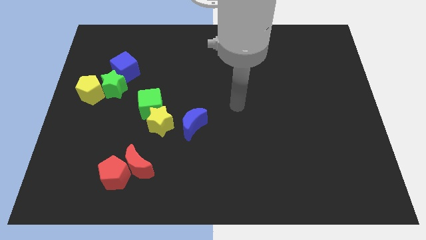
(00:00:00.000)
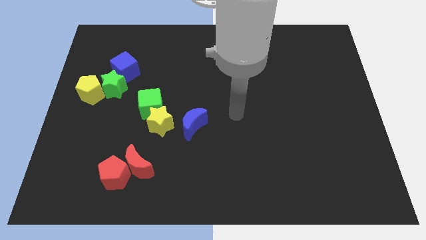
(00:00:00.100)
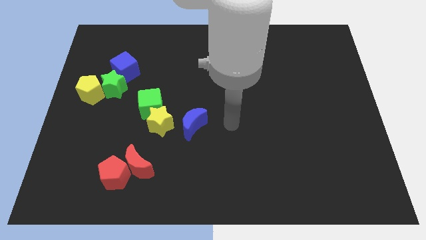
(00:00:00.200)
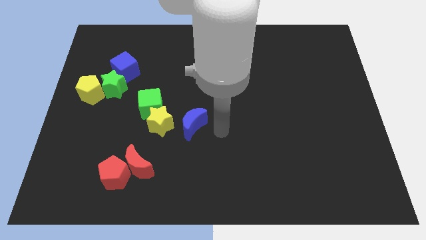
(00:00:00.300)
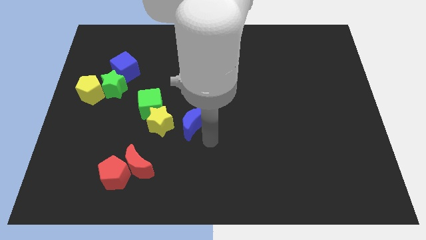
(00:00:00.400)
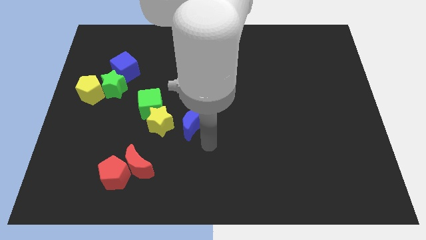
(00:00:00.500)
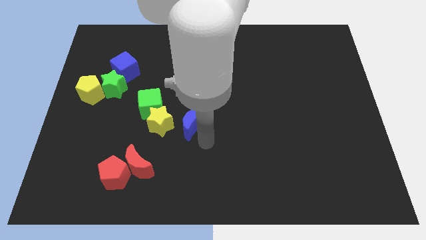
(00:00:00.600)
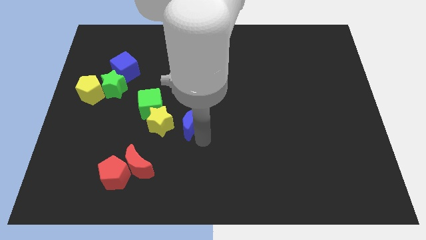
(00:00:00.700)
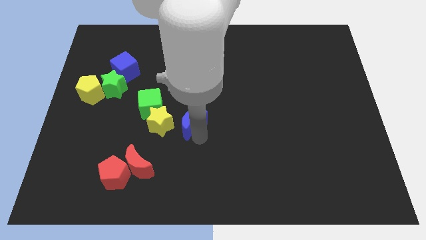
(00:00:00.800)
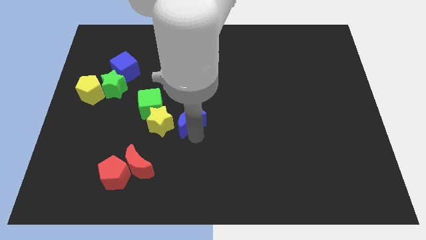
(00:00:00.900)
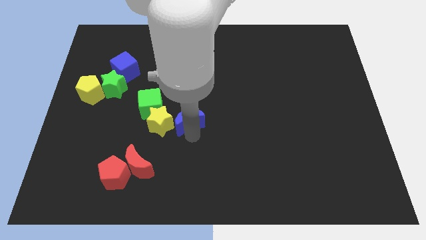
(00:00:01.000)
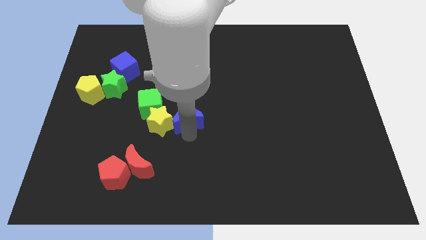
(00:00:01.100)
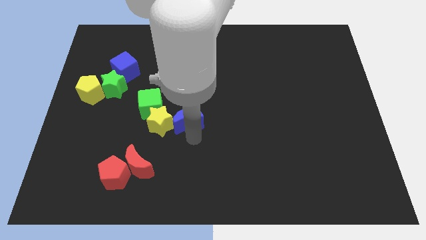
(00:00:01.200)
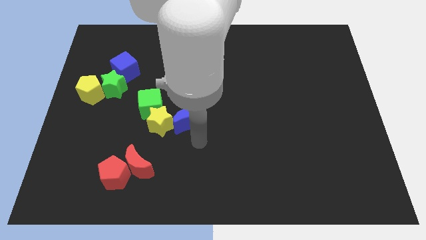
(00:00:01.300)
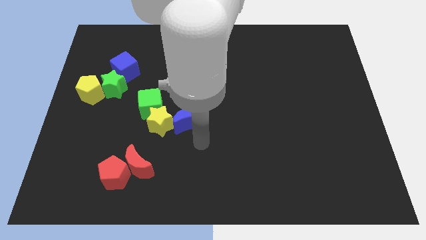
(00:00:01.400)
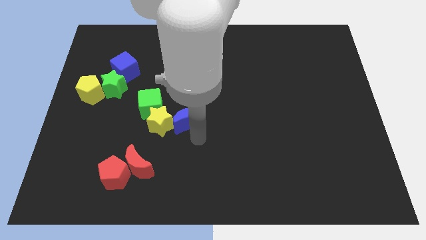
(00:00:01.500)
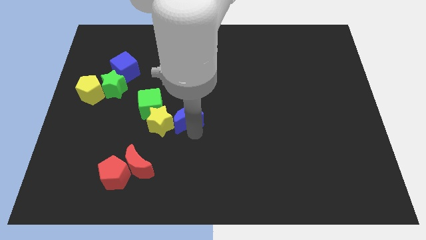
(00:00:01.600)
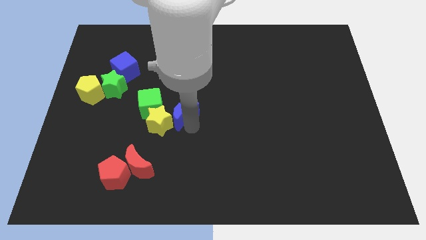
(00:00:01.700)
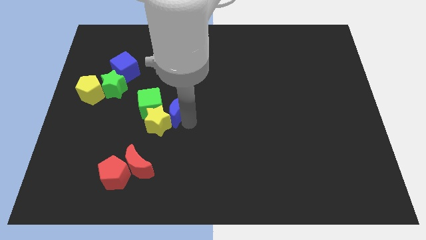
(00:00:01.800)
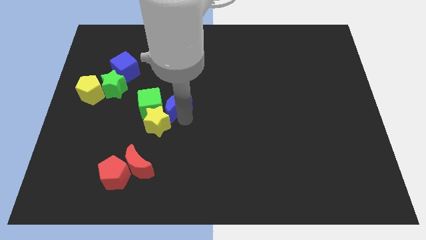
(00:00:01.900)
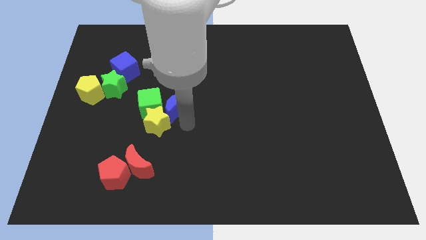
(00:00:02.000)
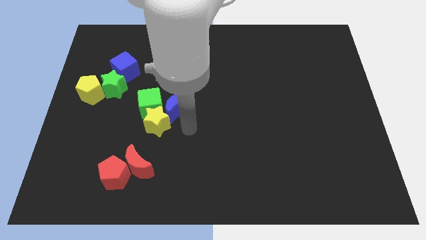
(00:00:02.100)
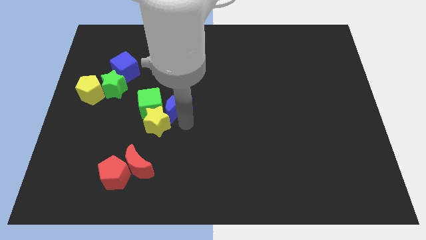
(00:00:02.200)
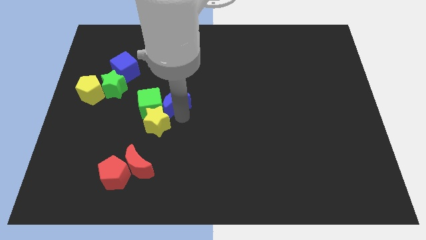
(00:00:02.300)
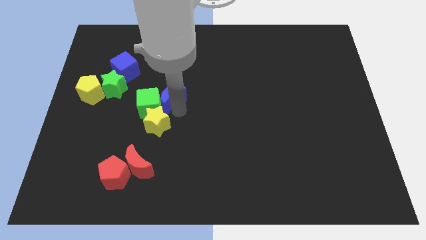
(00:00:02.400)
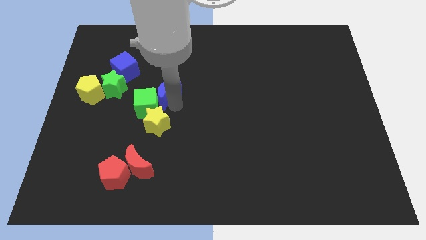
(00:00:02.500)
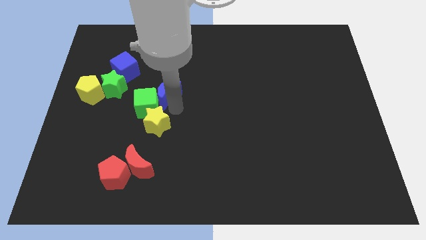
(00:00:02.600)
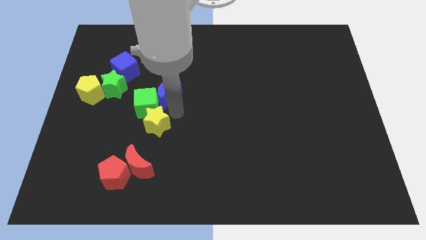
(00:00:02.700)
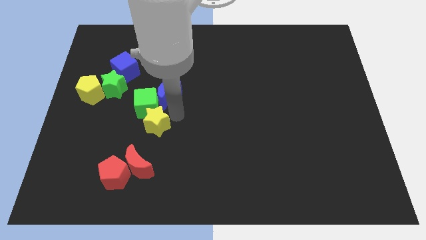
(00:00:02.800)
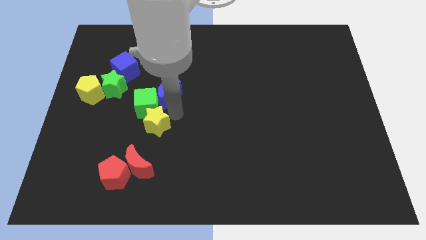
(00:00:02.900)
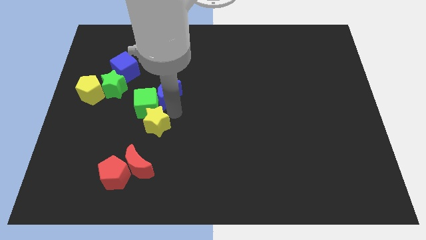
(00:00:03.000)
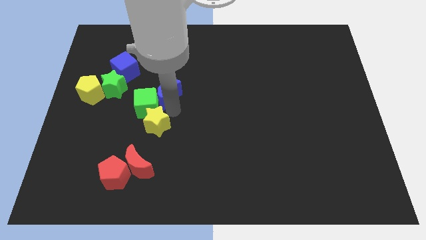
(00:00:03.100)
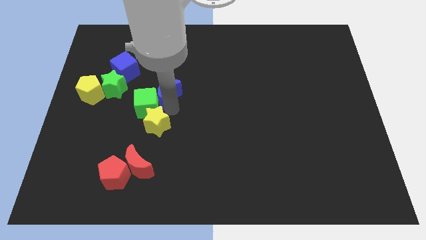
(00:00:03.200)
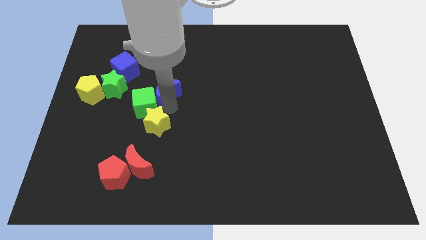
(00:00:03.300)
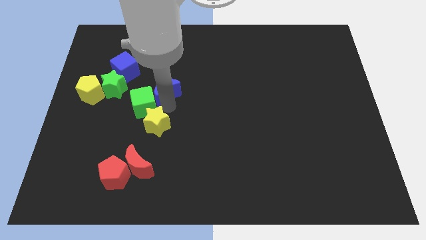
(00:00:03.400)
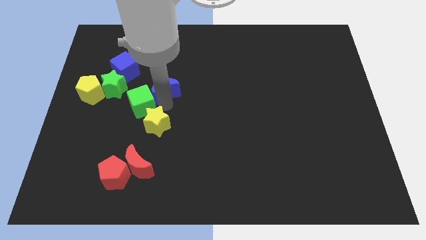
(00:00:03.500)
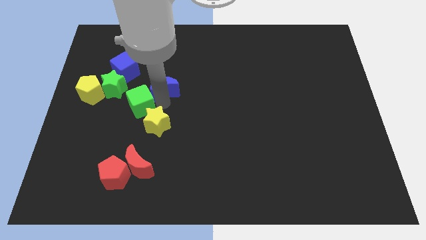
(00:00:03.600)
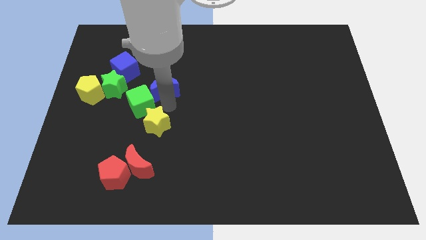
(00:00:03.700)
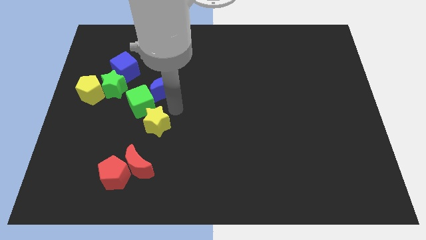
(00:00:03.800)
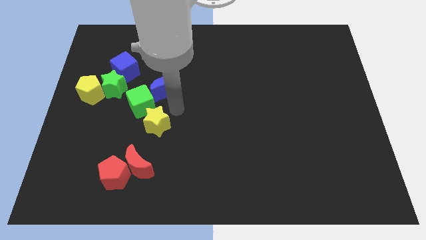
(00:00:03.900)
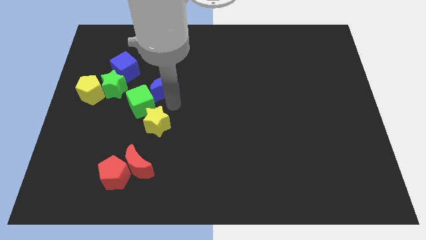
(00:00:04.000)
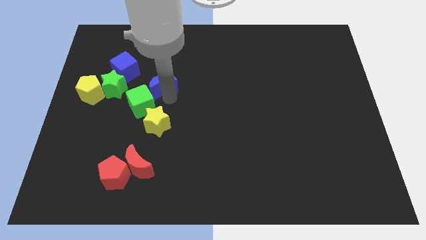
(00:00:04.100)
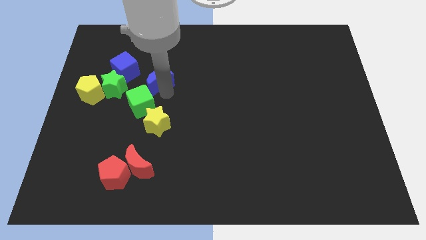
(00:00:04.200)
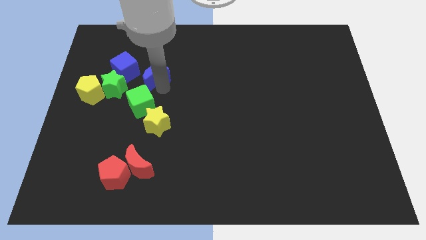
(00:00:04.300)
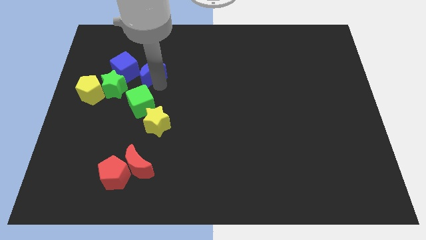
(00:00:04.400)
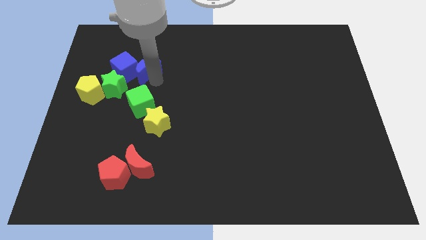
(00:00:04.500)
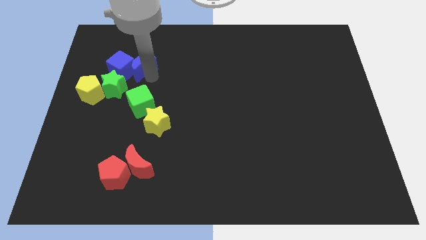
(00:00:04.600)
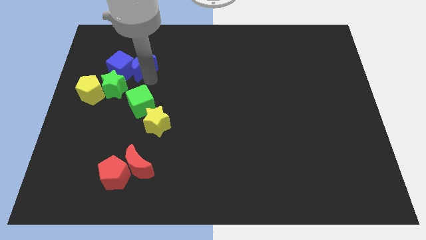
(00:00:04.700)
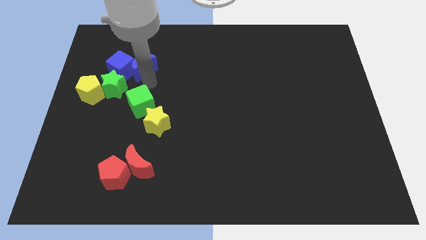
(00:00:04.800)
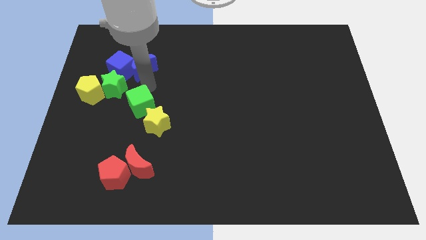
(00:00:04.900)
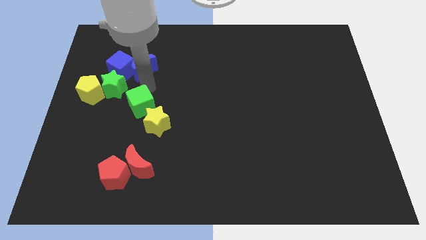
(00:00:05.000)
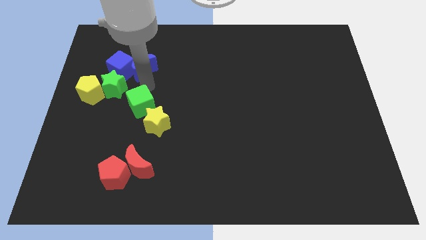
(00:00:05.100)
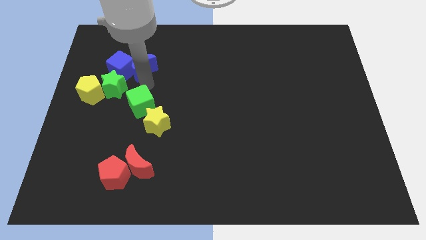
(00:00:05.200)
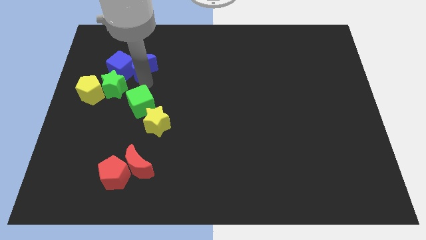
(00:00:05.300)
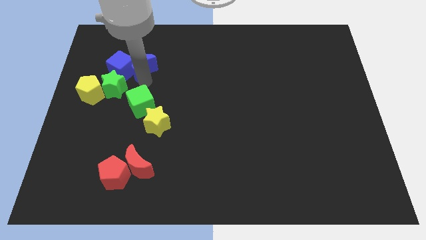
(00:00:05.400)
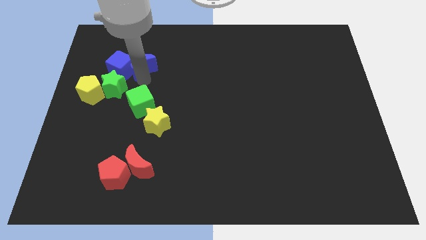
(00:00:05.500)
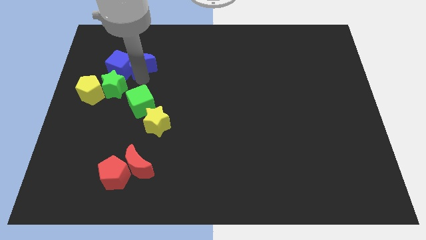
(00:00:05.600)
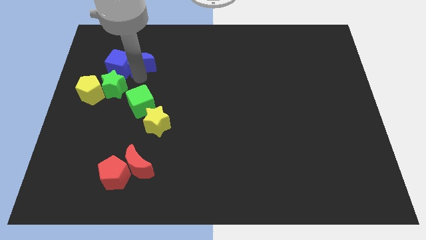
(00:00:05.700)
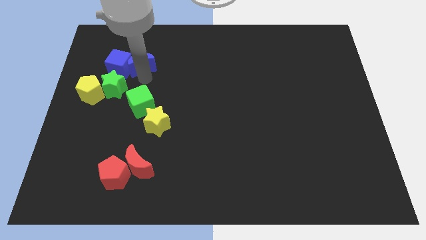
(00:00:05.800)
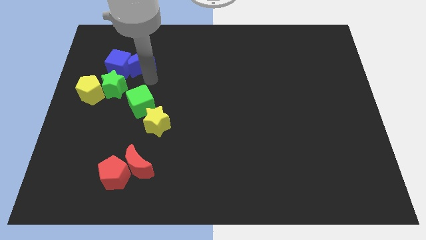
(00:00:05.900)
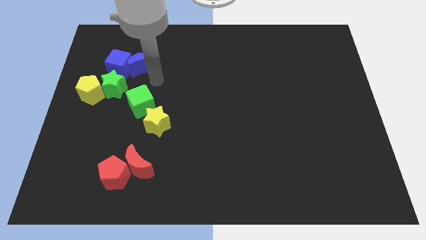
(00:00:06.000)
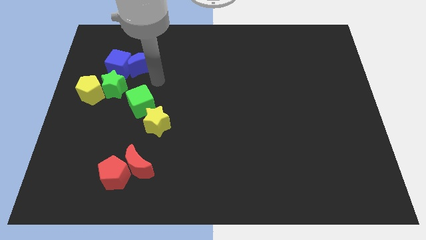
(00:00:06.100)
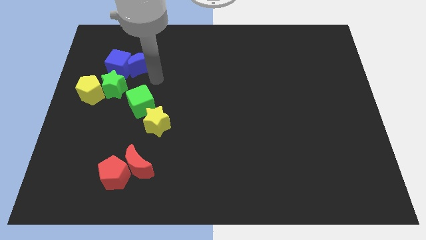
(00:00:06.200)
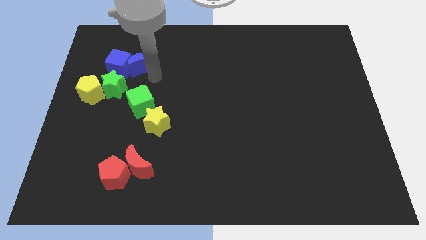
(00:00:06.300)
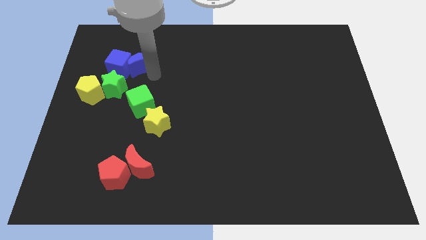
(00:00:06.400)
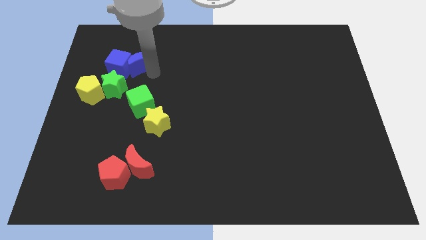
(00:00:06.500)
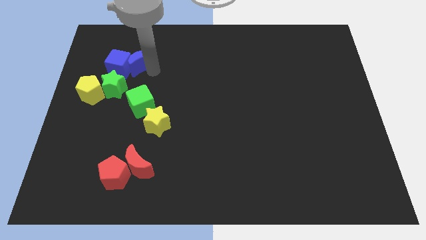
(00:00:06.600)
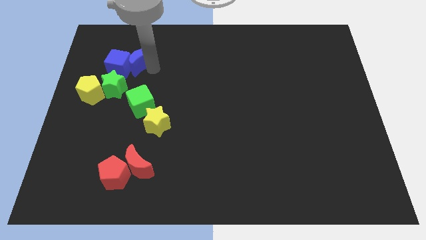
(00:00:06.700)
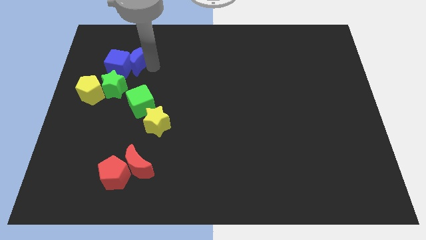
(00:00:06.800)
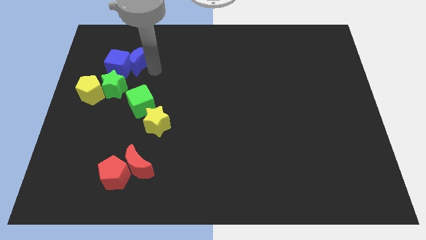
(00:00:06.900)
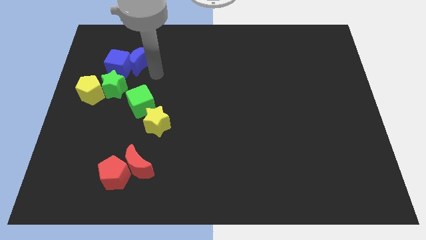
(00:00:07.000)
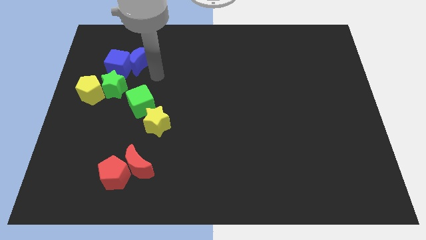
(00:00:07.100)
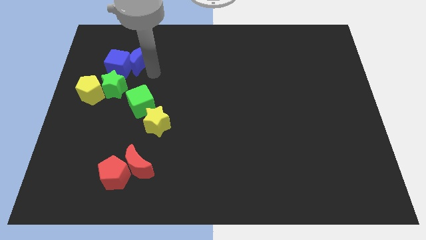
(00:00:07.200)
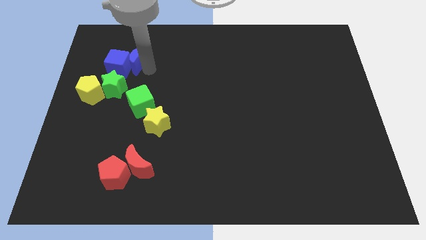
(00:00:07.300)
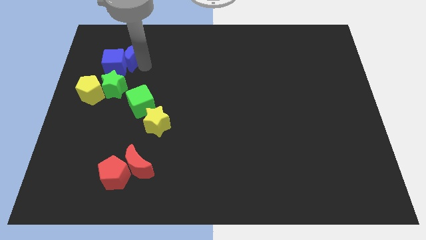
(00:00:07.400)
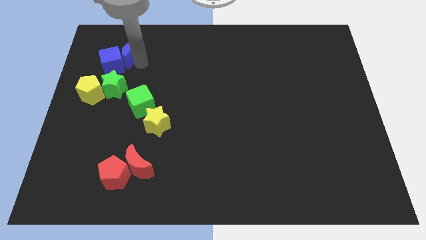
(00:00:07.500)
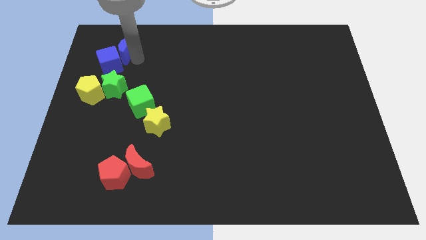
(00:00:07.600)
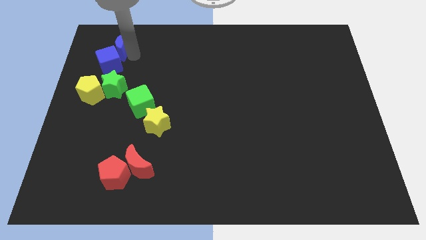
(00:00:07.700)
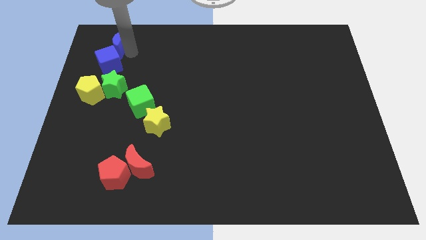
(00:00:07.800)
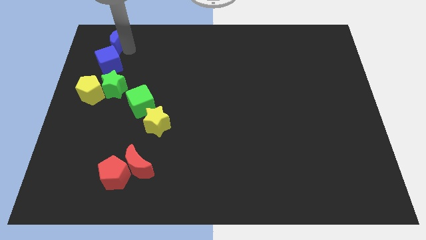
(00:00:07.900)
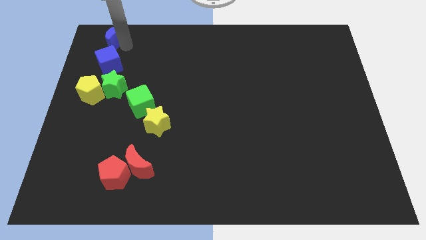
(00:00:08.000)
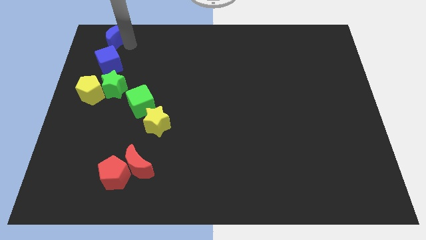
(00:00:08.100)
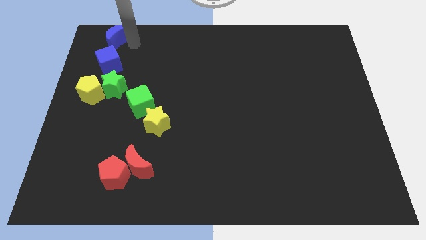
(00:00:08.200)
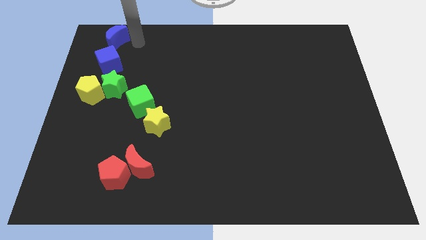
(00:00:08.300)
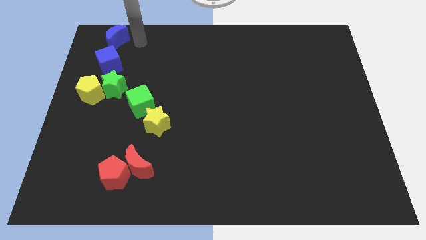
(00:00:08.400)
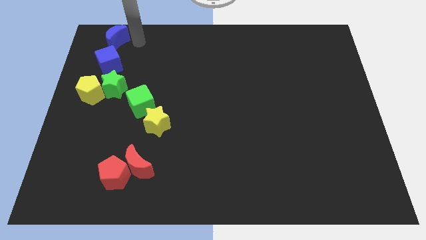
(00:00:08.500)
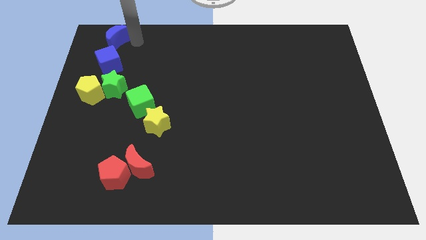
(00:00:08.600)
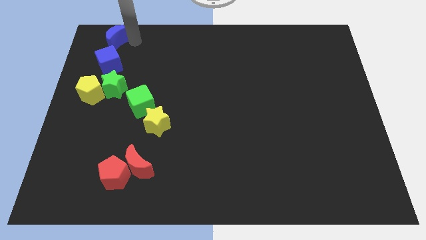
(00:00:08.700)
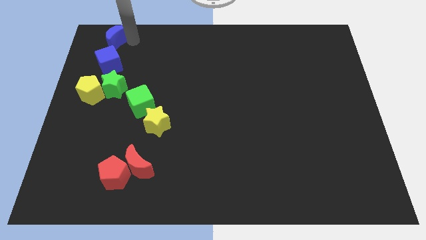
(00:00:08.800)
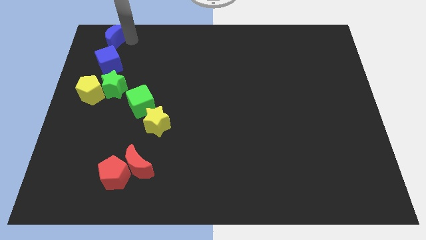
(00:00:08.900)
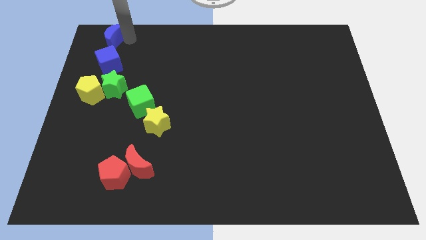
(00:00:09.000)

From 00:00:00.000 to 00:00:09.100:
slide the blue moon to the top left corner
